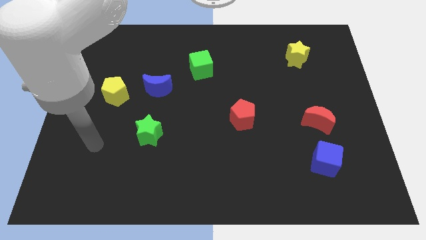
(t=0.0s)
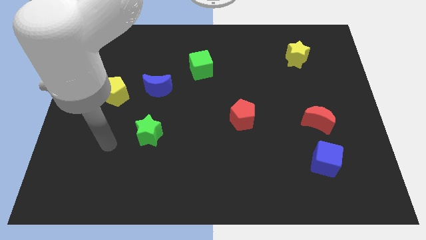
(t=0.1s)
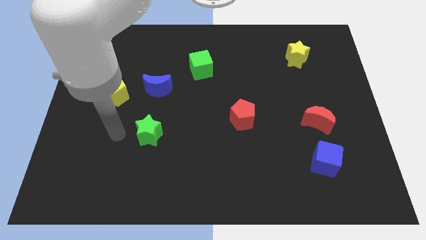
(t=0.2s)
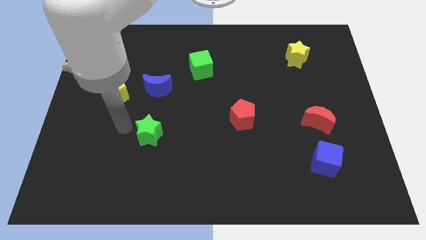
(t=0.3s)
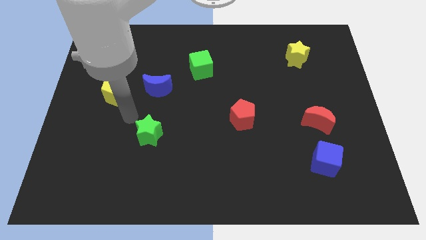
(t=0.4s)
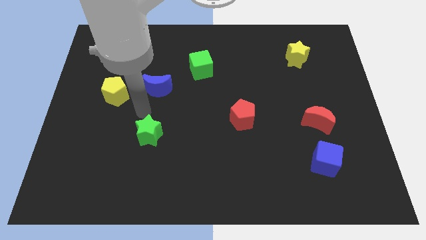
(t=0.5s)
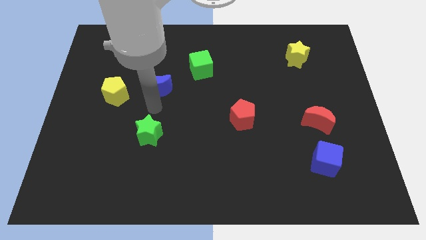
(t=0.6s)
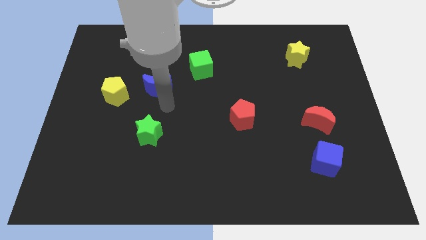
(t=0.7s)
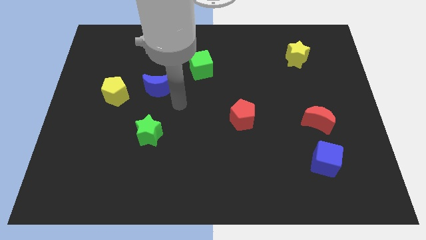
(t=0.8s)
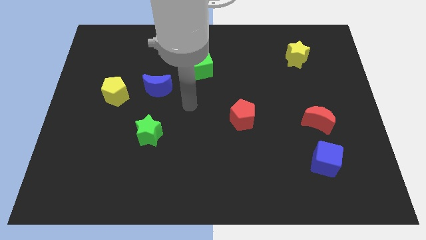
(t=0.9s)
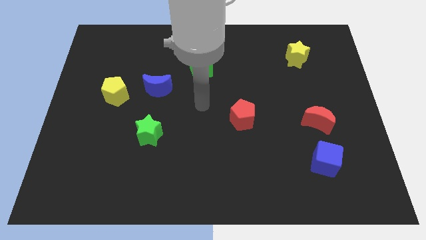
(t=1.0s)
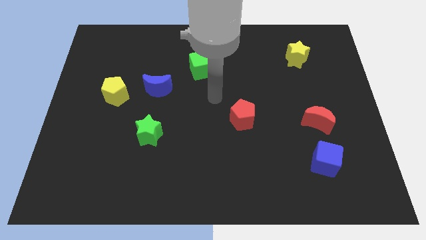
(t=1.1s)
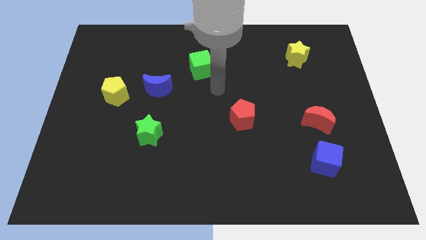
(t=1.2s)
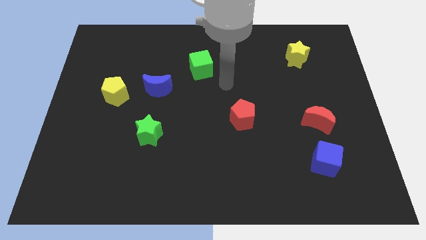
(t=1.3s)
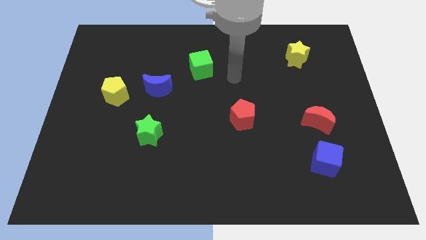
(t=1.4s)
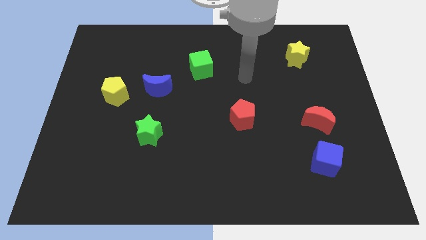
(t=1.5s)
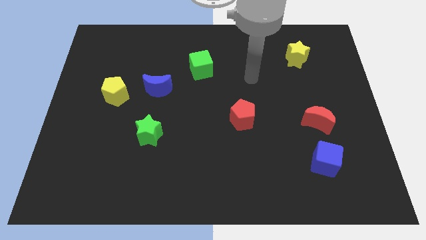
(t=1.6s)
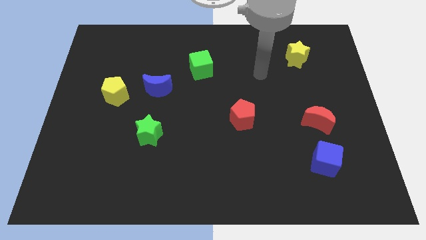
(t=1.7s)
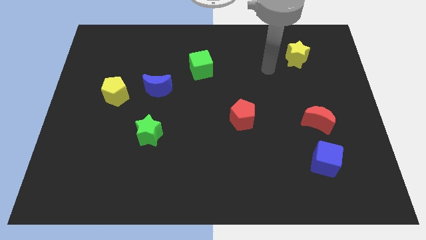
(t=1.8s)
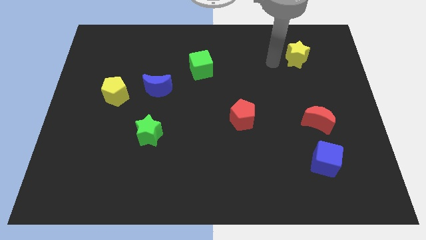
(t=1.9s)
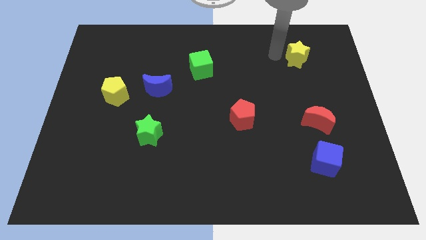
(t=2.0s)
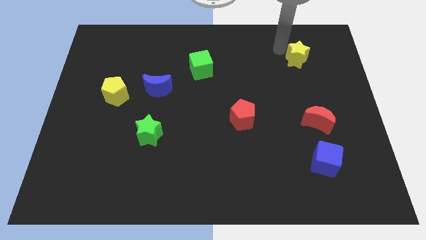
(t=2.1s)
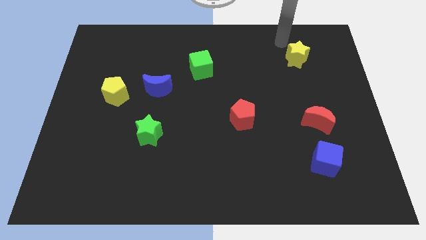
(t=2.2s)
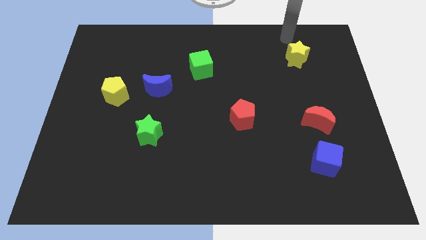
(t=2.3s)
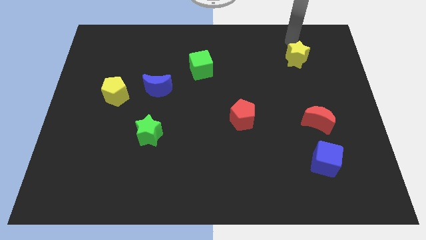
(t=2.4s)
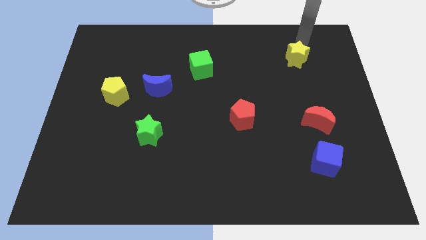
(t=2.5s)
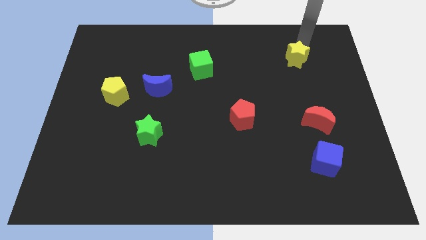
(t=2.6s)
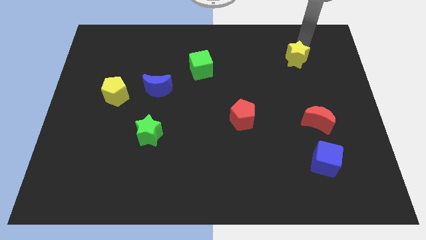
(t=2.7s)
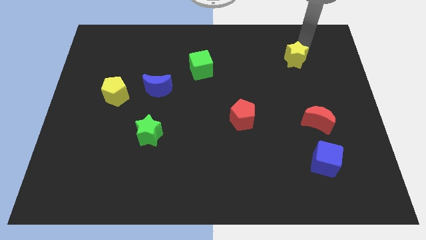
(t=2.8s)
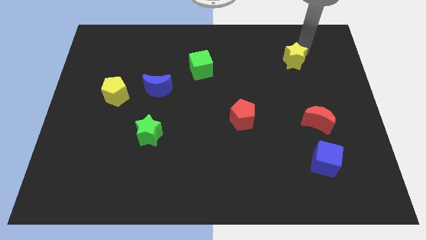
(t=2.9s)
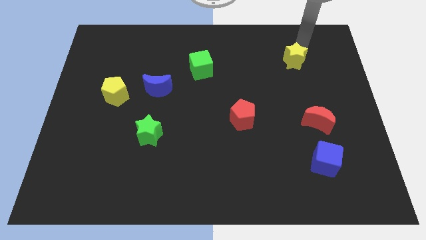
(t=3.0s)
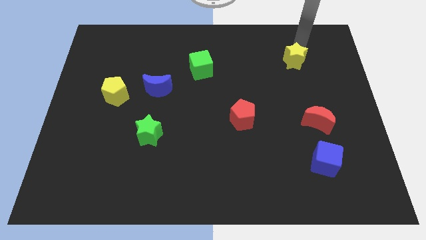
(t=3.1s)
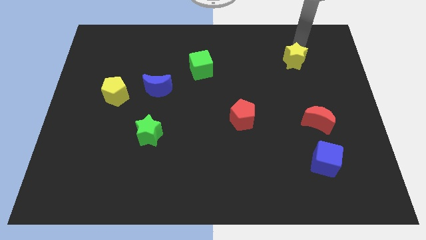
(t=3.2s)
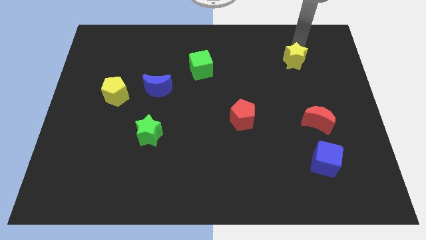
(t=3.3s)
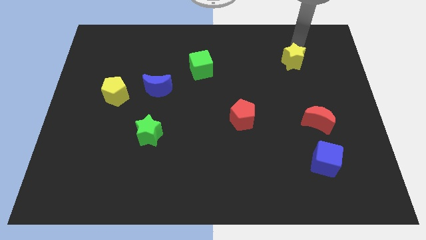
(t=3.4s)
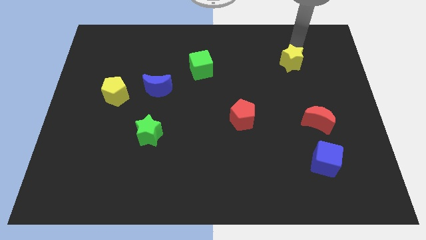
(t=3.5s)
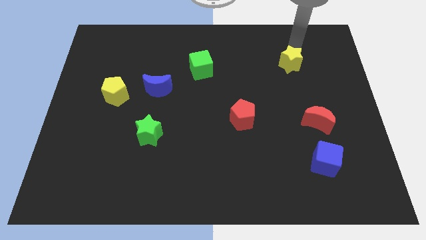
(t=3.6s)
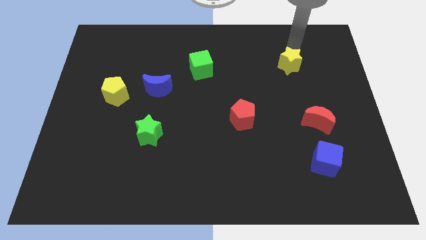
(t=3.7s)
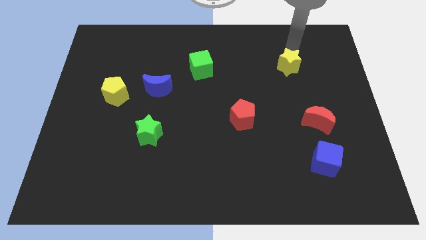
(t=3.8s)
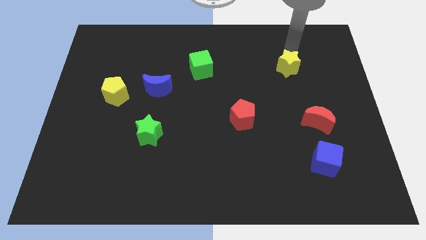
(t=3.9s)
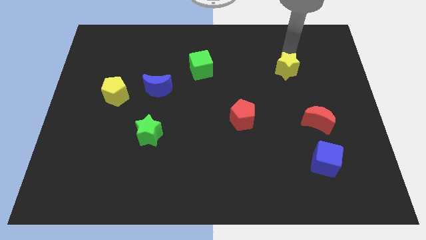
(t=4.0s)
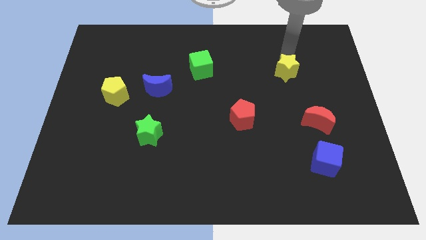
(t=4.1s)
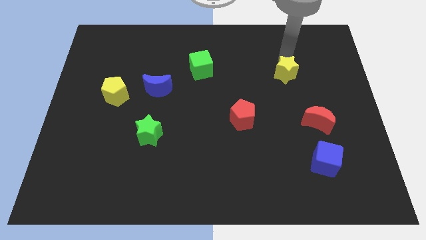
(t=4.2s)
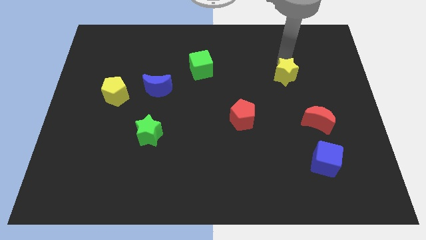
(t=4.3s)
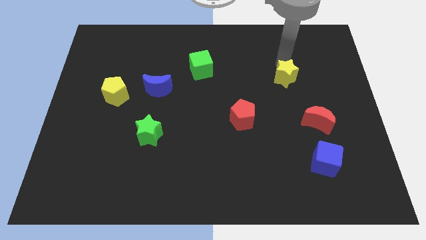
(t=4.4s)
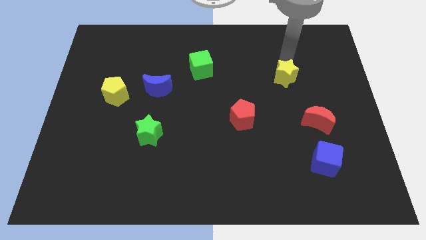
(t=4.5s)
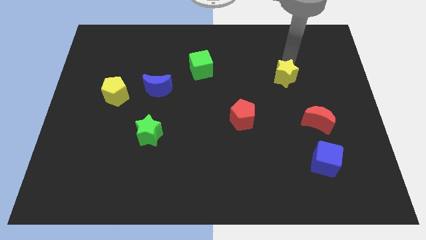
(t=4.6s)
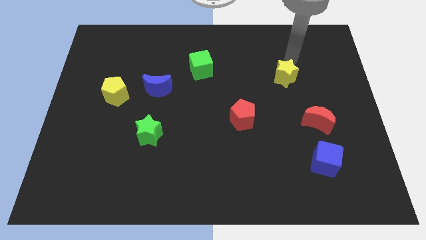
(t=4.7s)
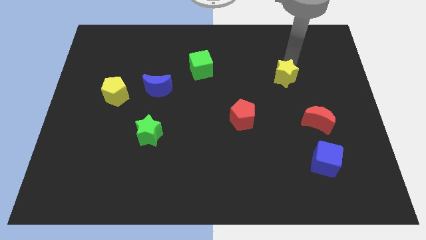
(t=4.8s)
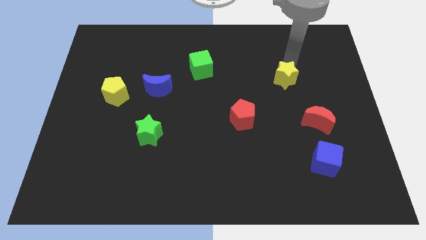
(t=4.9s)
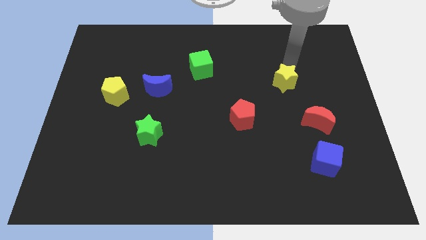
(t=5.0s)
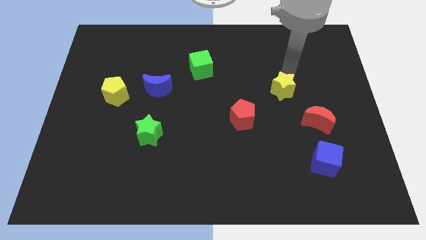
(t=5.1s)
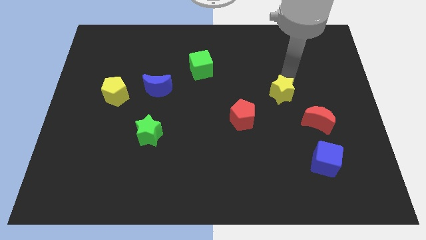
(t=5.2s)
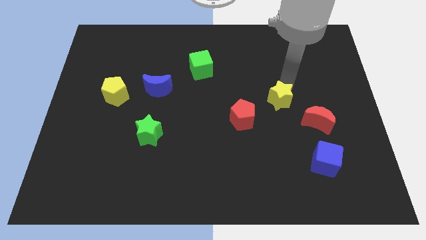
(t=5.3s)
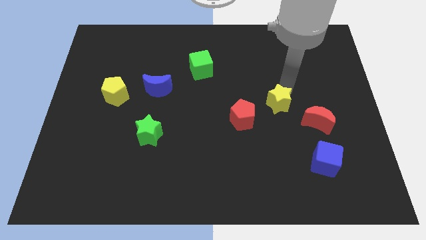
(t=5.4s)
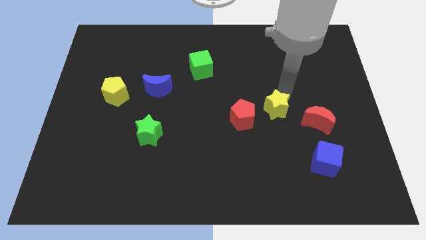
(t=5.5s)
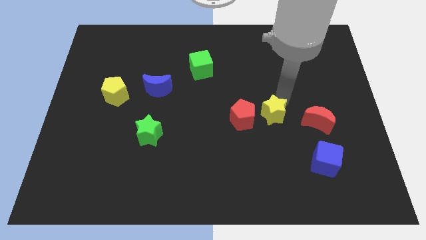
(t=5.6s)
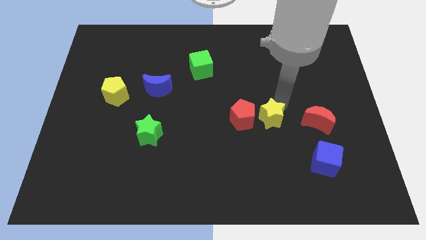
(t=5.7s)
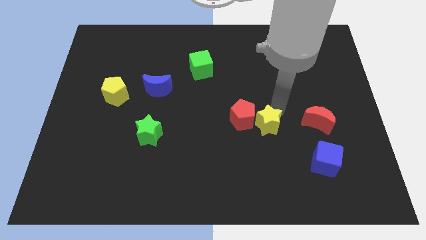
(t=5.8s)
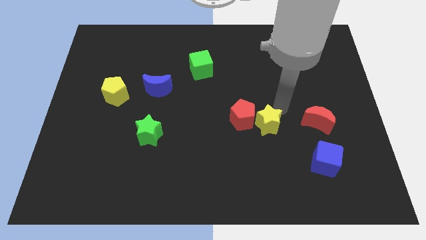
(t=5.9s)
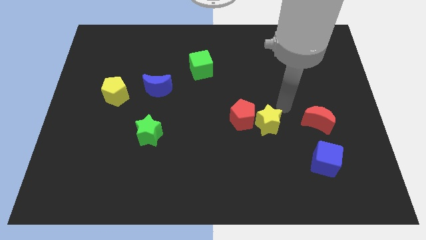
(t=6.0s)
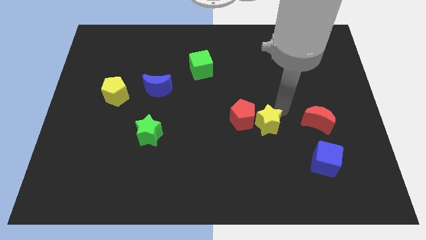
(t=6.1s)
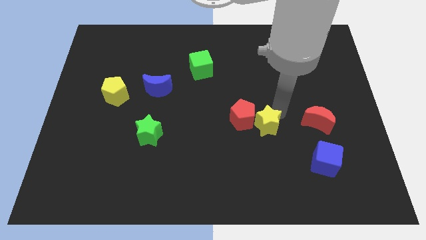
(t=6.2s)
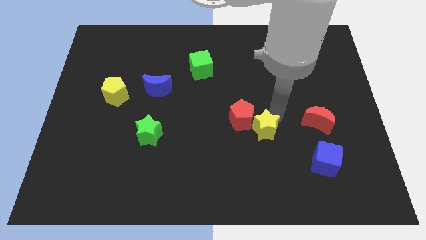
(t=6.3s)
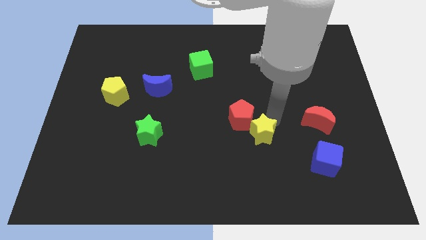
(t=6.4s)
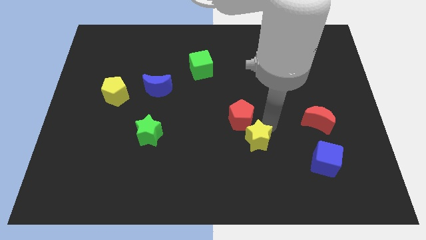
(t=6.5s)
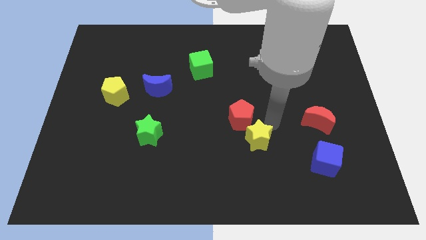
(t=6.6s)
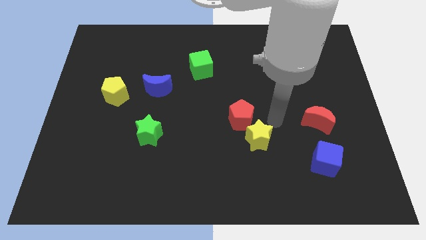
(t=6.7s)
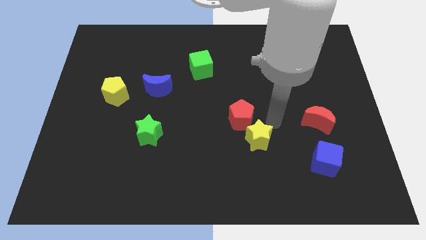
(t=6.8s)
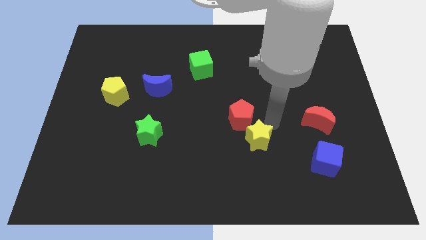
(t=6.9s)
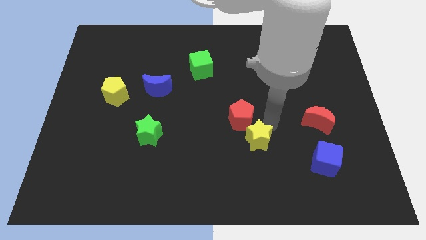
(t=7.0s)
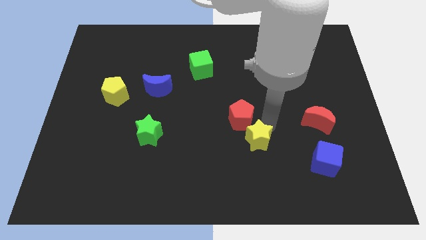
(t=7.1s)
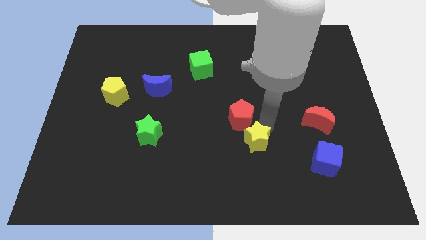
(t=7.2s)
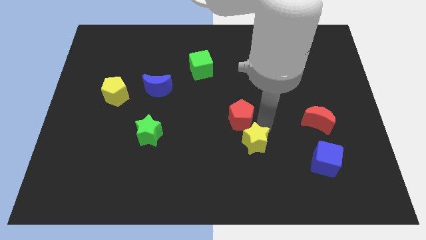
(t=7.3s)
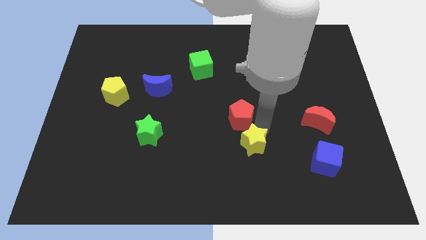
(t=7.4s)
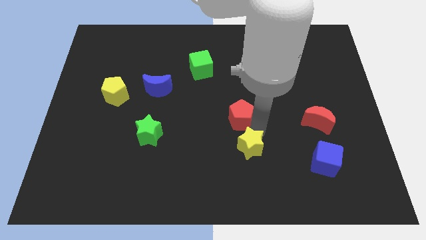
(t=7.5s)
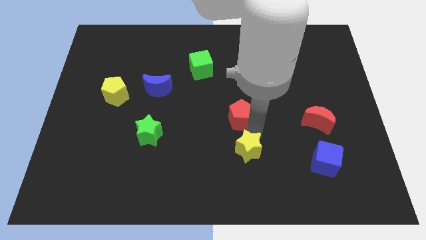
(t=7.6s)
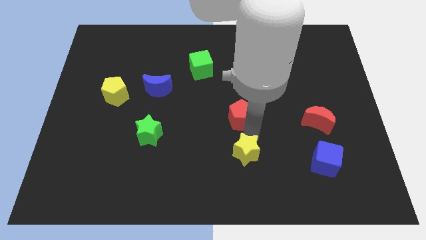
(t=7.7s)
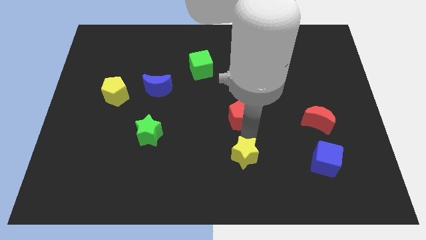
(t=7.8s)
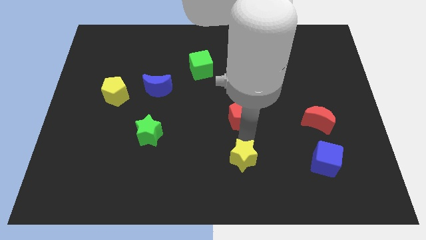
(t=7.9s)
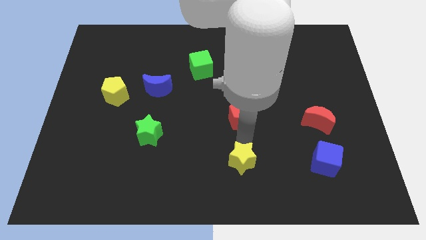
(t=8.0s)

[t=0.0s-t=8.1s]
put the yellow star to the bottom side
